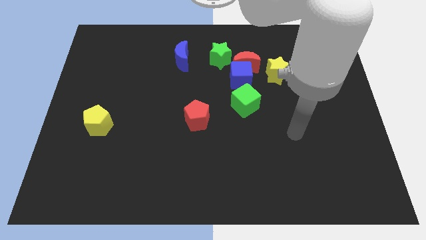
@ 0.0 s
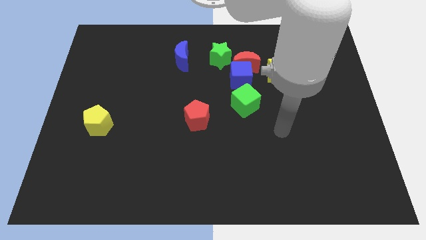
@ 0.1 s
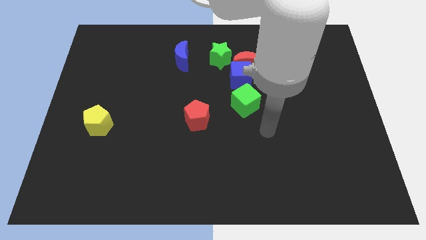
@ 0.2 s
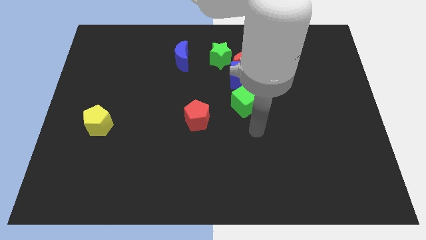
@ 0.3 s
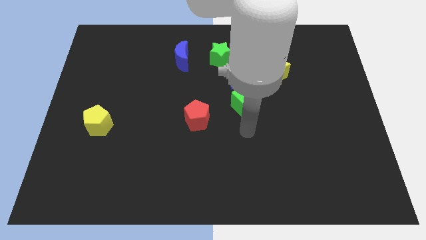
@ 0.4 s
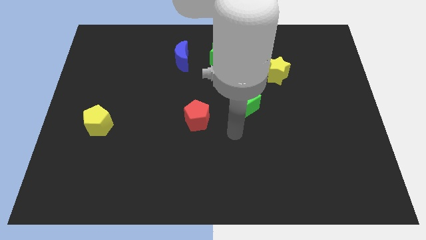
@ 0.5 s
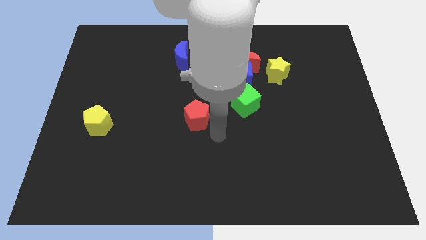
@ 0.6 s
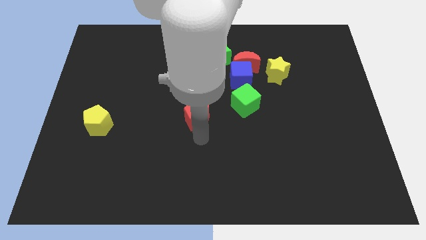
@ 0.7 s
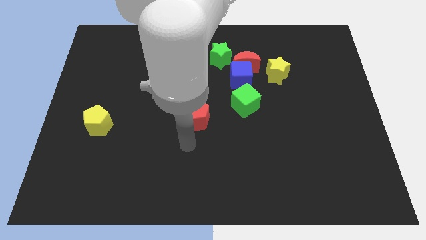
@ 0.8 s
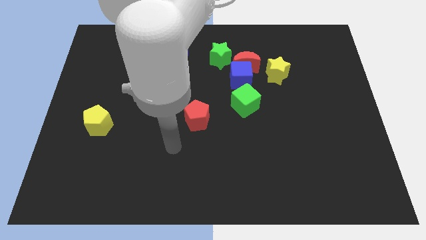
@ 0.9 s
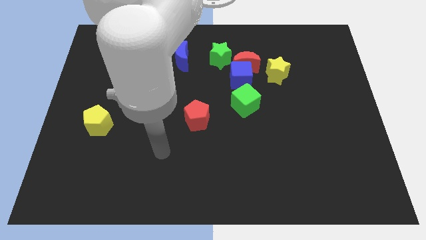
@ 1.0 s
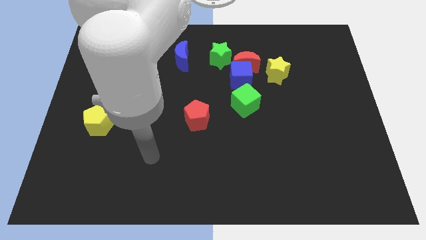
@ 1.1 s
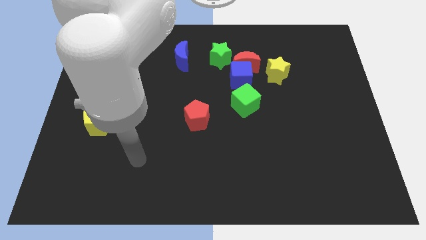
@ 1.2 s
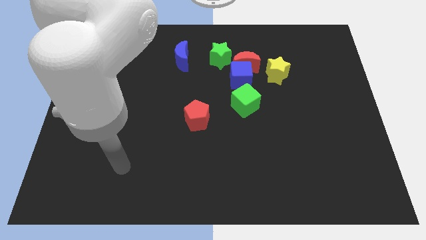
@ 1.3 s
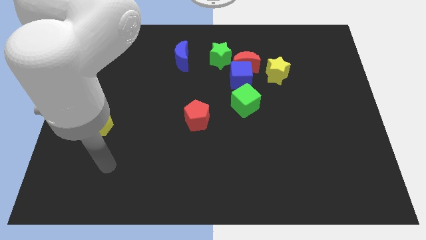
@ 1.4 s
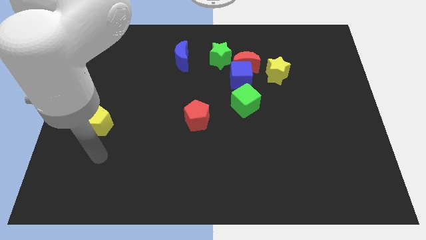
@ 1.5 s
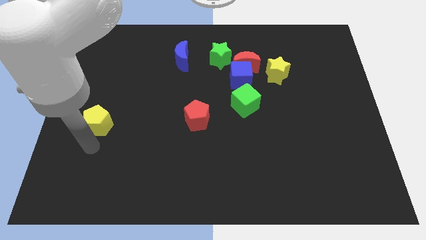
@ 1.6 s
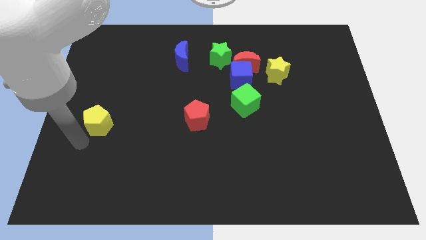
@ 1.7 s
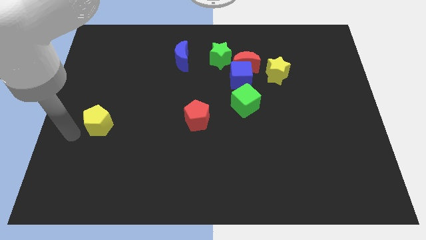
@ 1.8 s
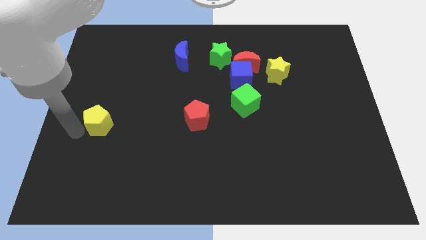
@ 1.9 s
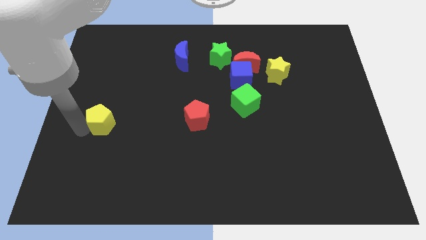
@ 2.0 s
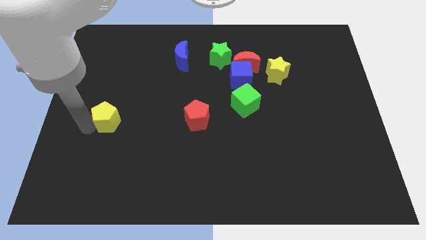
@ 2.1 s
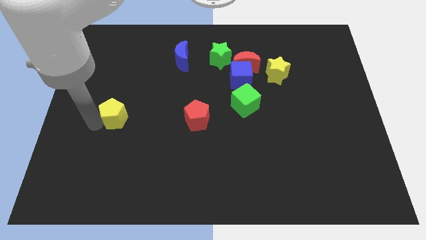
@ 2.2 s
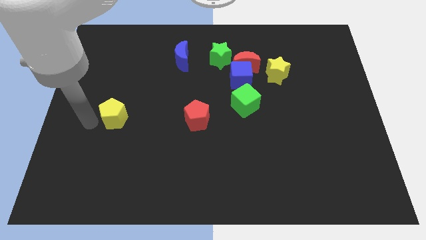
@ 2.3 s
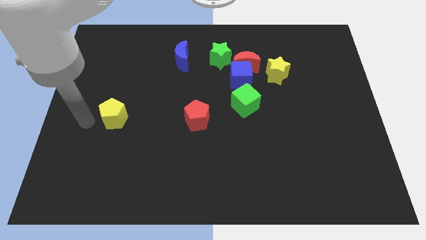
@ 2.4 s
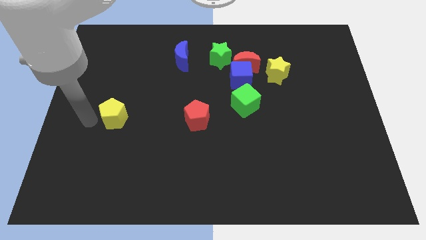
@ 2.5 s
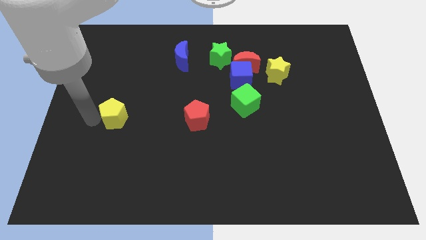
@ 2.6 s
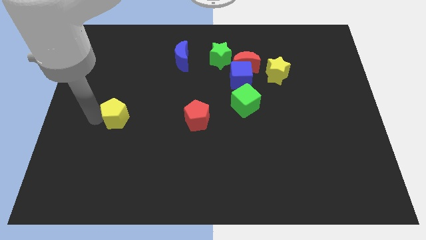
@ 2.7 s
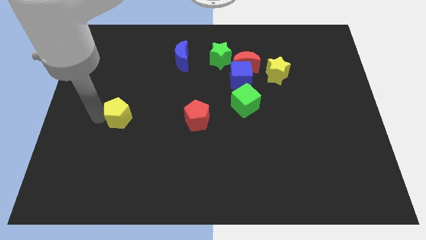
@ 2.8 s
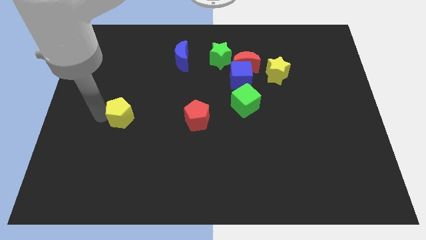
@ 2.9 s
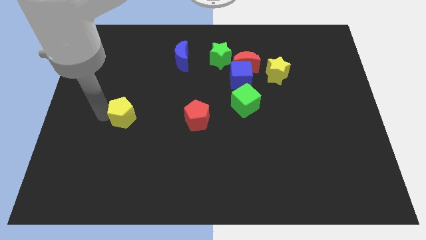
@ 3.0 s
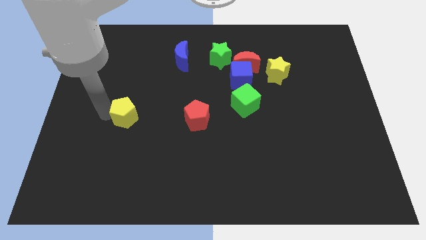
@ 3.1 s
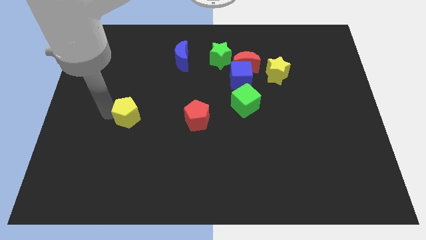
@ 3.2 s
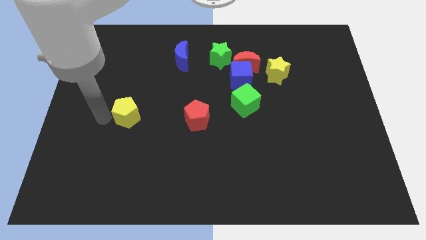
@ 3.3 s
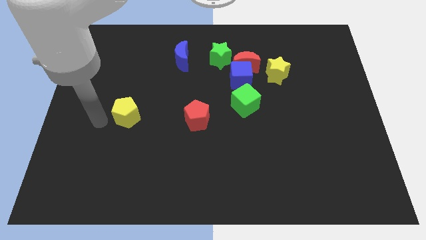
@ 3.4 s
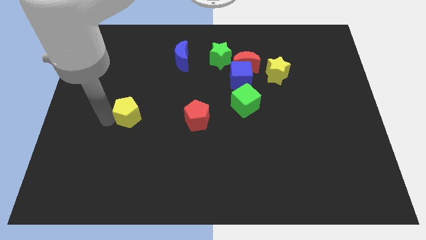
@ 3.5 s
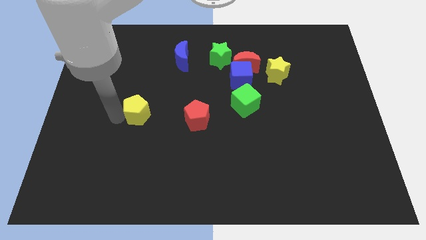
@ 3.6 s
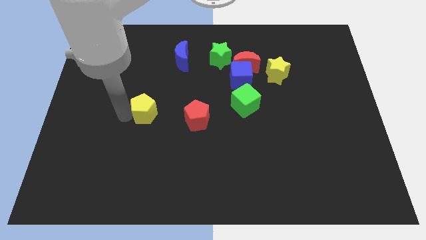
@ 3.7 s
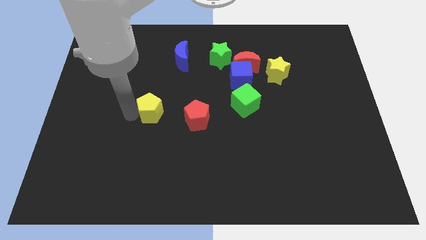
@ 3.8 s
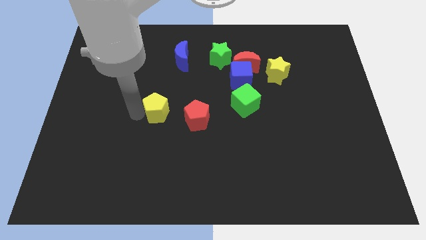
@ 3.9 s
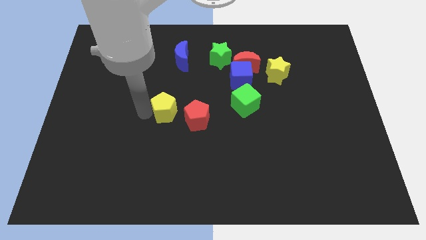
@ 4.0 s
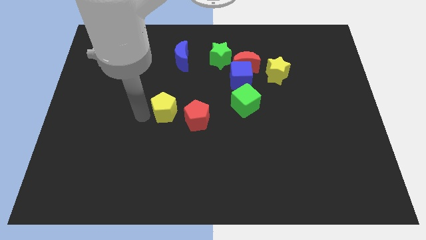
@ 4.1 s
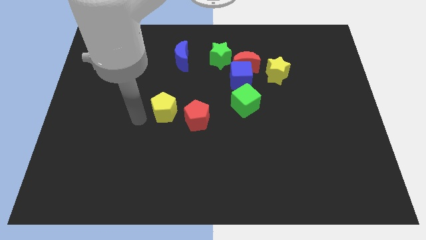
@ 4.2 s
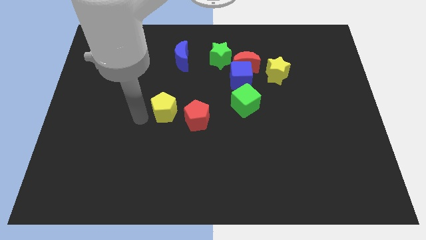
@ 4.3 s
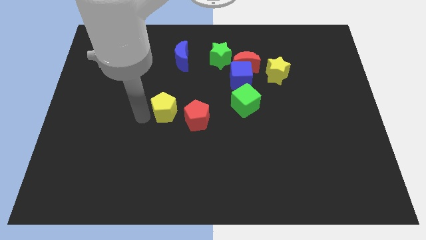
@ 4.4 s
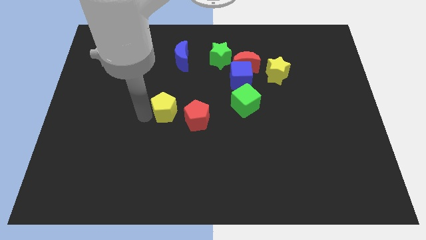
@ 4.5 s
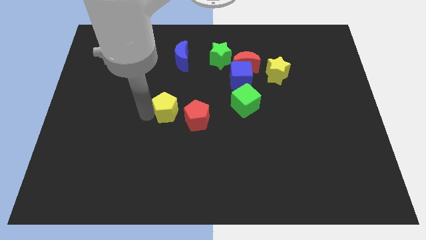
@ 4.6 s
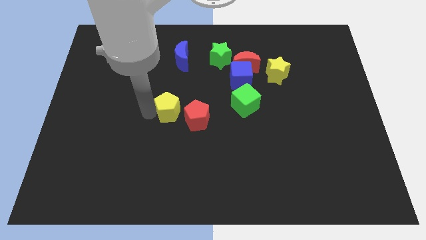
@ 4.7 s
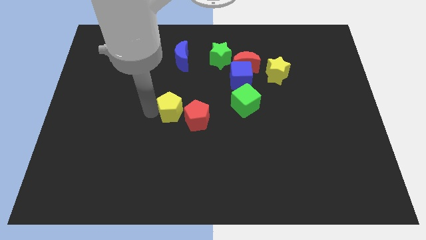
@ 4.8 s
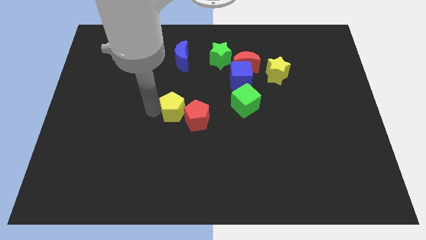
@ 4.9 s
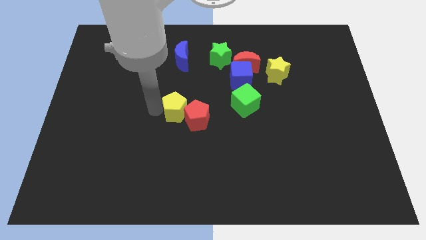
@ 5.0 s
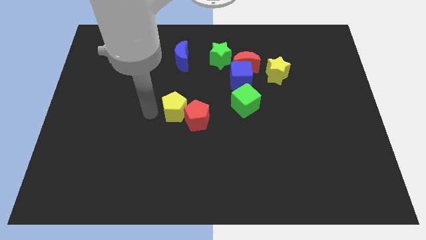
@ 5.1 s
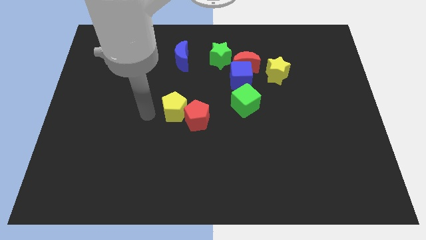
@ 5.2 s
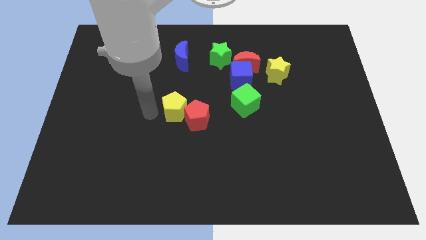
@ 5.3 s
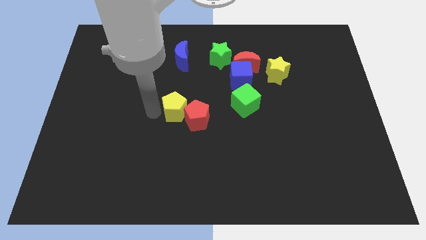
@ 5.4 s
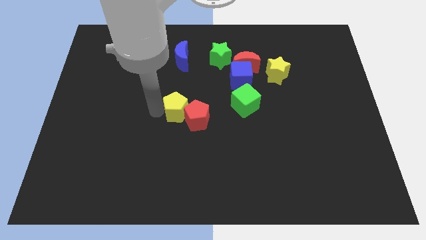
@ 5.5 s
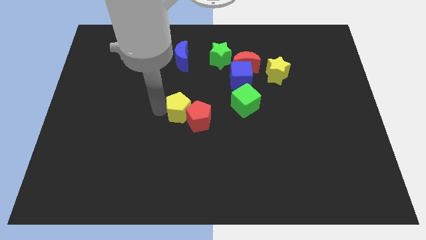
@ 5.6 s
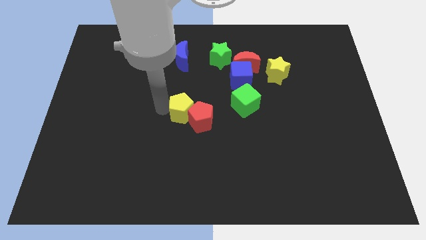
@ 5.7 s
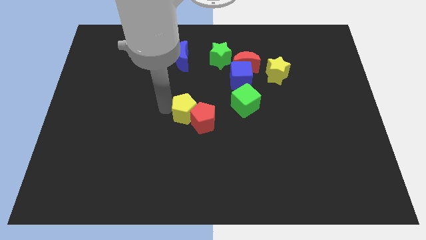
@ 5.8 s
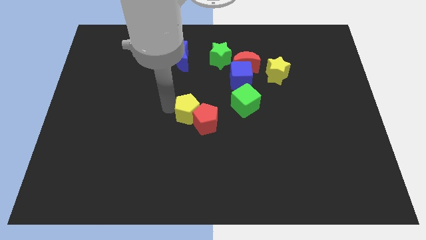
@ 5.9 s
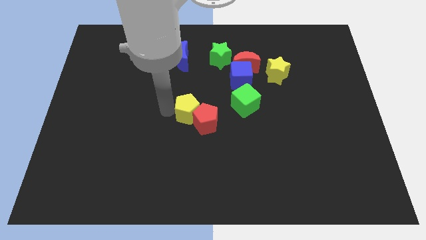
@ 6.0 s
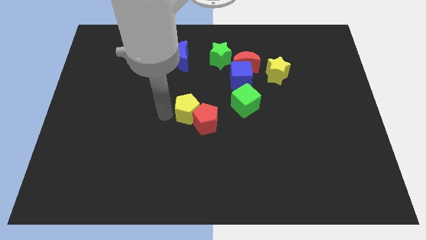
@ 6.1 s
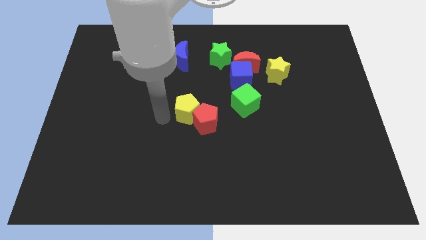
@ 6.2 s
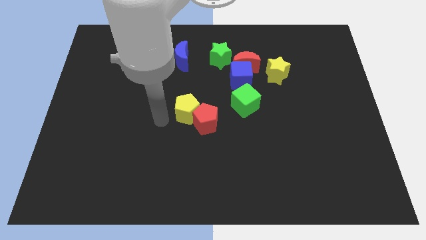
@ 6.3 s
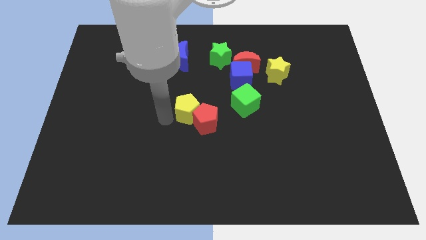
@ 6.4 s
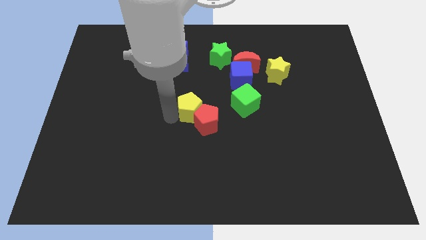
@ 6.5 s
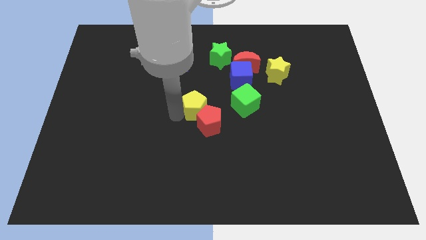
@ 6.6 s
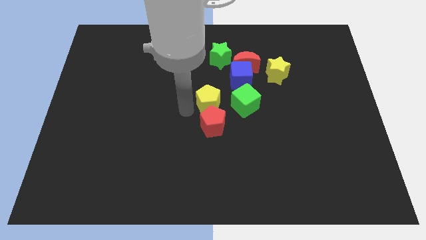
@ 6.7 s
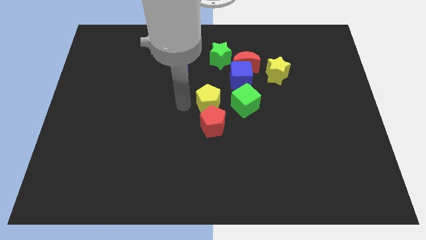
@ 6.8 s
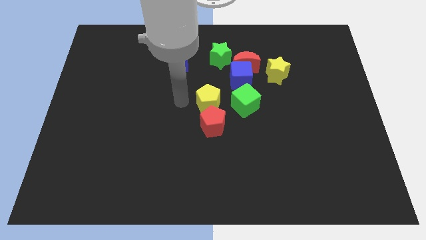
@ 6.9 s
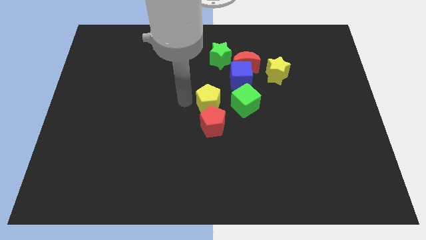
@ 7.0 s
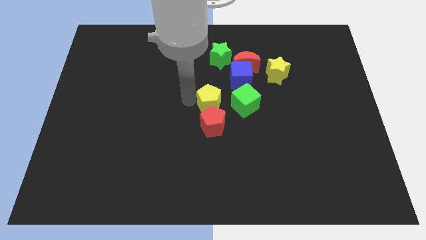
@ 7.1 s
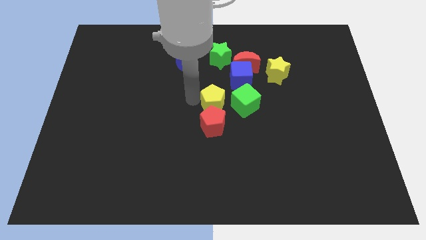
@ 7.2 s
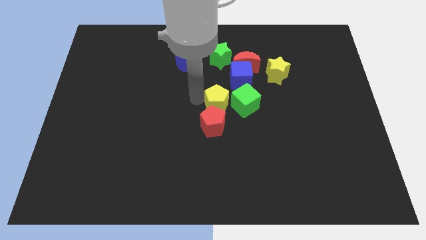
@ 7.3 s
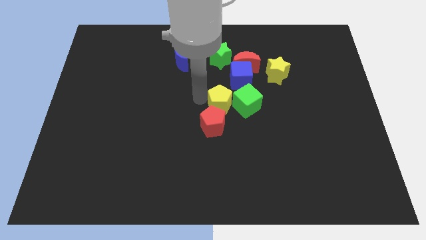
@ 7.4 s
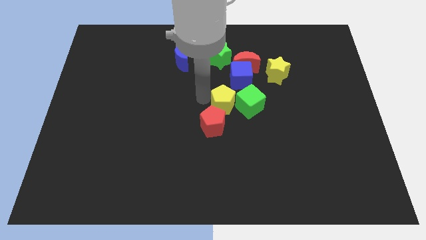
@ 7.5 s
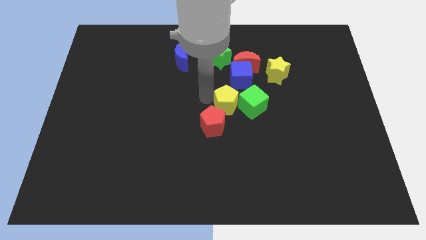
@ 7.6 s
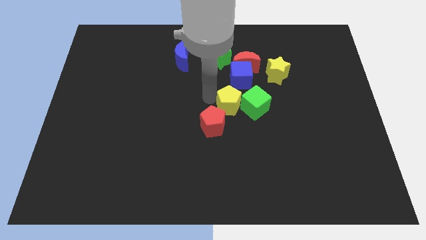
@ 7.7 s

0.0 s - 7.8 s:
put the yellow pentagon towards the green cube
